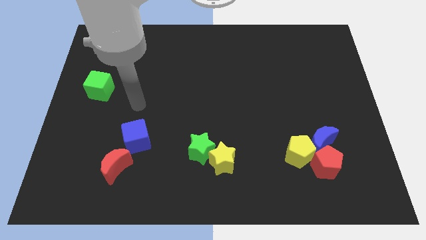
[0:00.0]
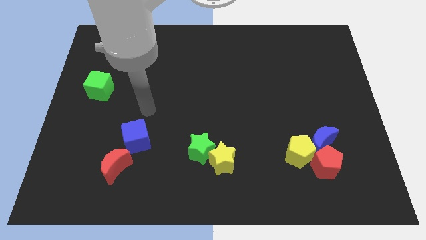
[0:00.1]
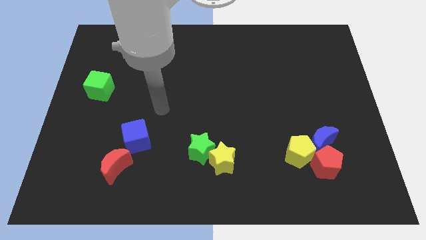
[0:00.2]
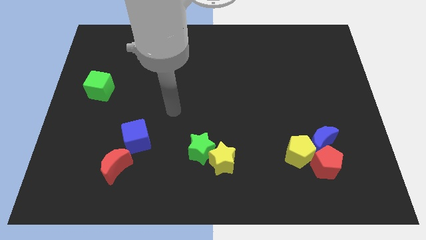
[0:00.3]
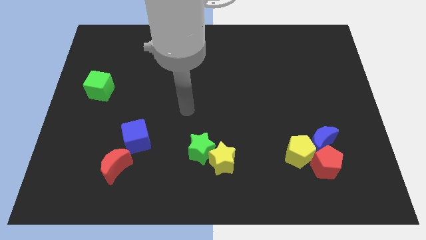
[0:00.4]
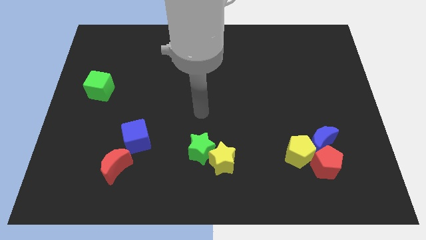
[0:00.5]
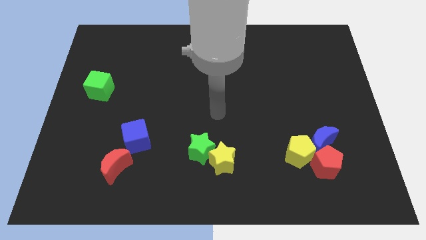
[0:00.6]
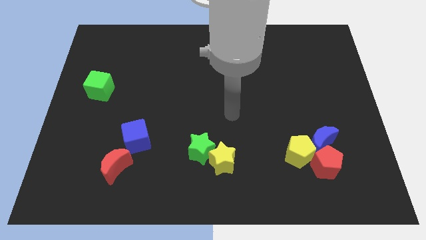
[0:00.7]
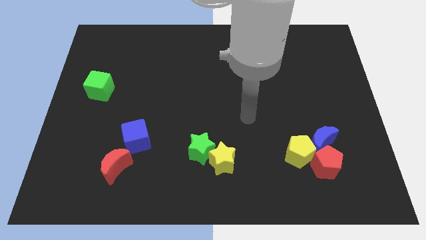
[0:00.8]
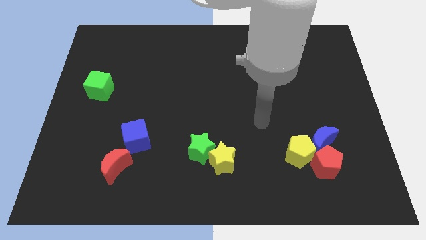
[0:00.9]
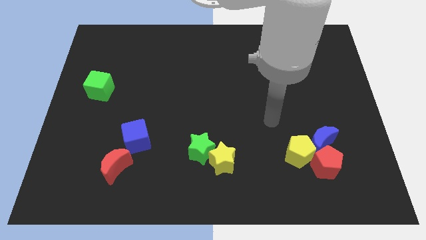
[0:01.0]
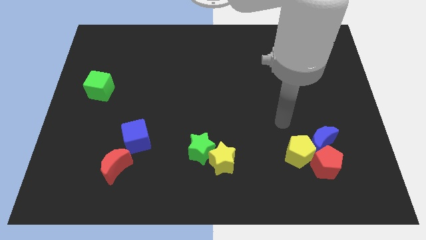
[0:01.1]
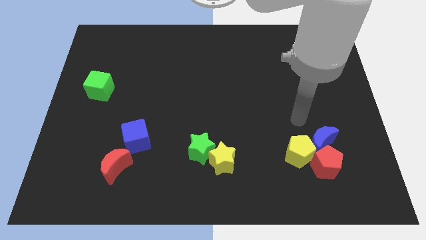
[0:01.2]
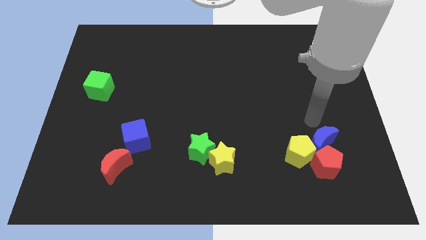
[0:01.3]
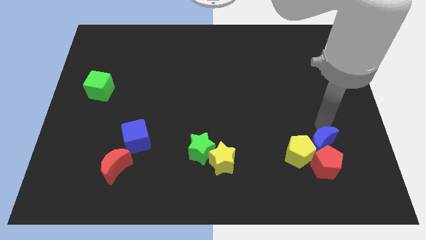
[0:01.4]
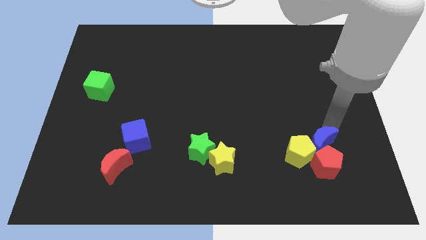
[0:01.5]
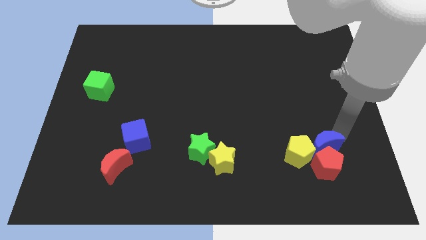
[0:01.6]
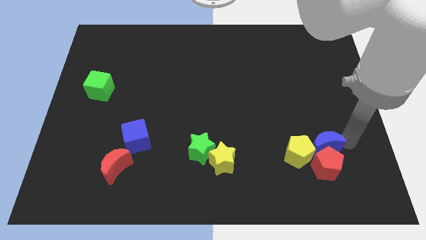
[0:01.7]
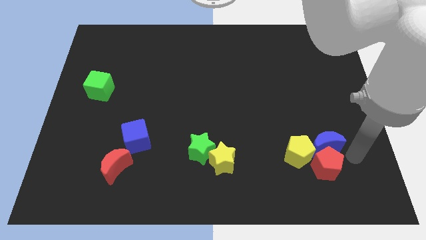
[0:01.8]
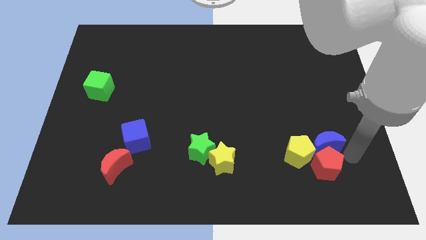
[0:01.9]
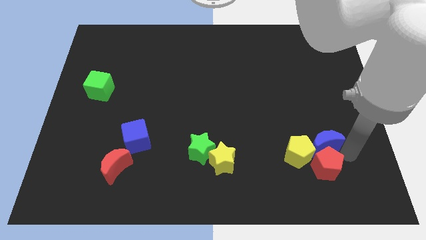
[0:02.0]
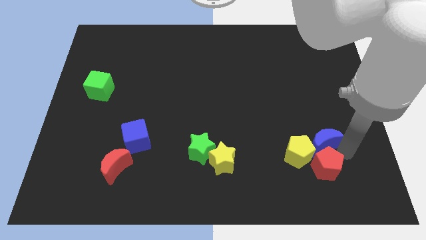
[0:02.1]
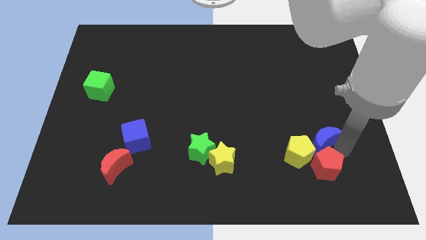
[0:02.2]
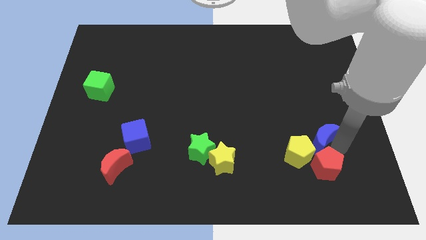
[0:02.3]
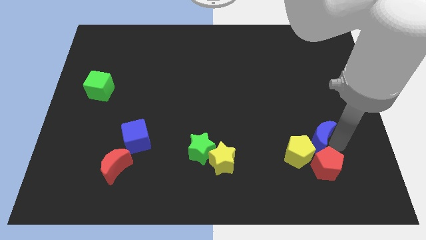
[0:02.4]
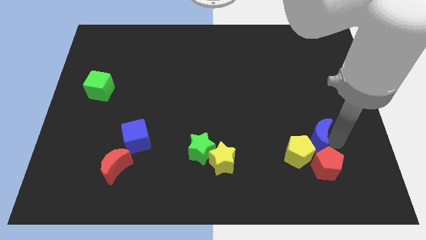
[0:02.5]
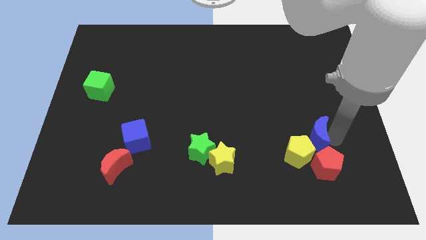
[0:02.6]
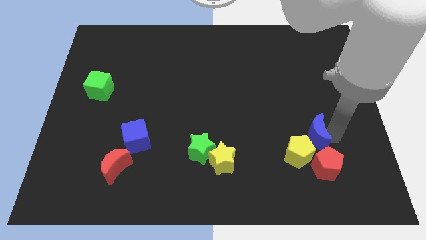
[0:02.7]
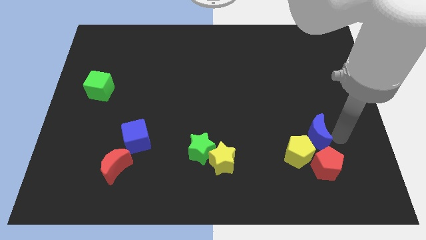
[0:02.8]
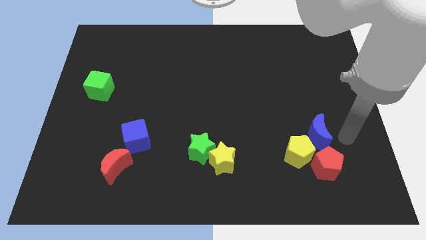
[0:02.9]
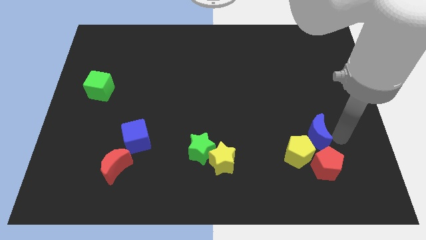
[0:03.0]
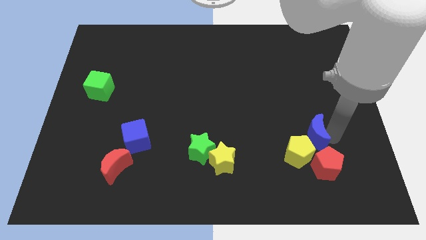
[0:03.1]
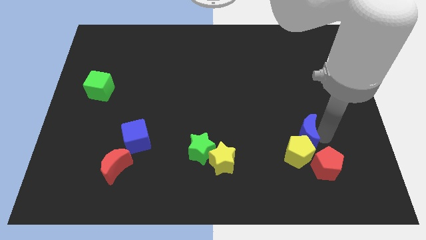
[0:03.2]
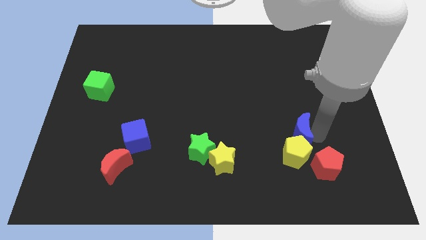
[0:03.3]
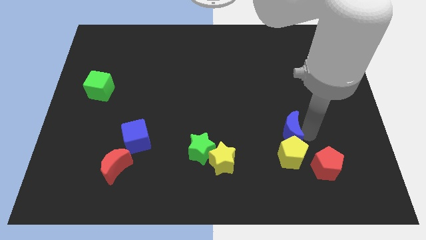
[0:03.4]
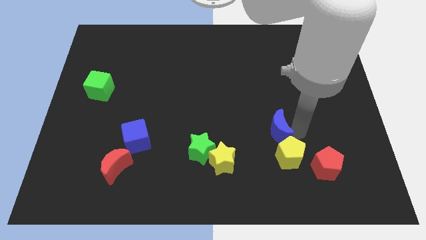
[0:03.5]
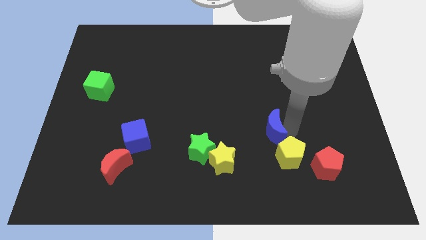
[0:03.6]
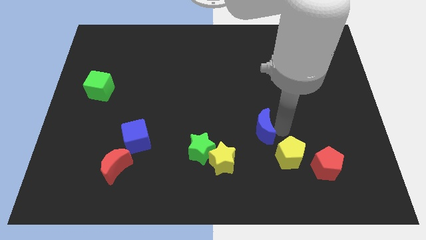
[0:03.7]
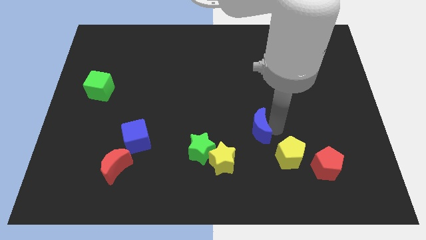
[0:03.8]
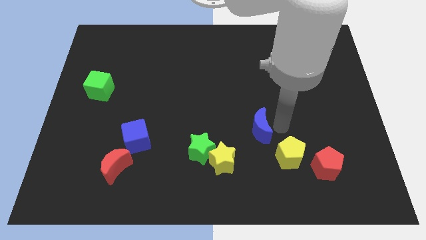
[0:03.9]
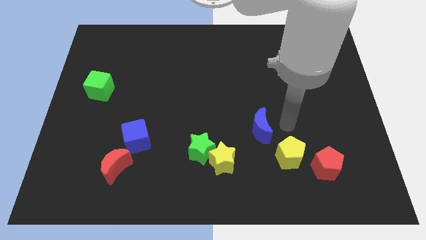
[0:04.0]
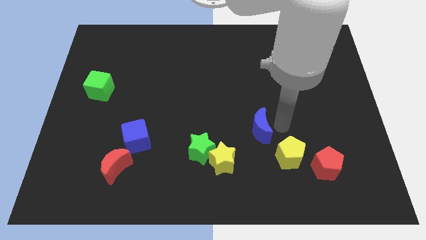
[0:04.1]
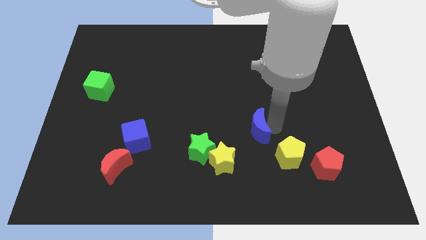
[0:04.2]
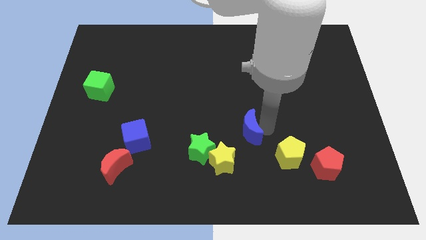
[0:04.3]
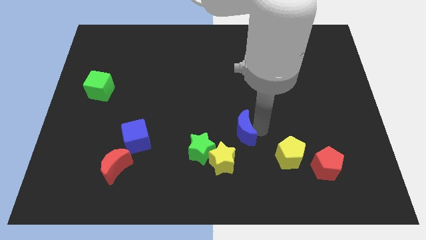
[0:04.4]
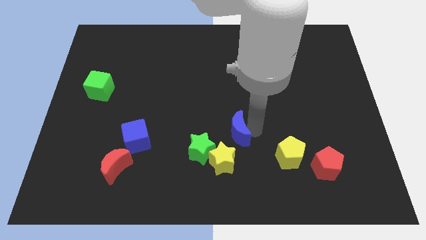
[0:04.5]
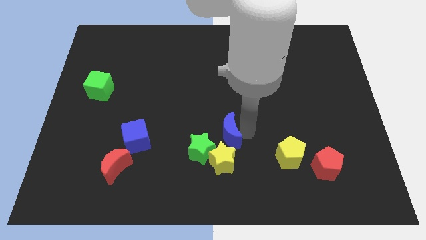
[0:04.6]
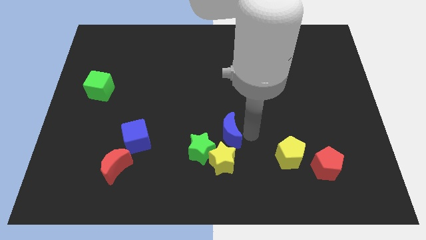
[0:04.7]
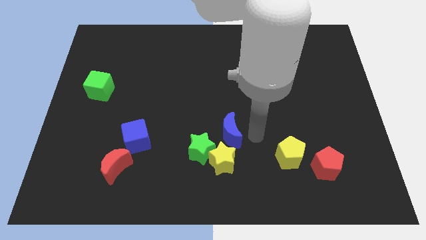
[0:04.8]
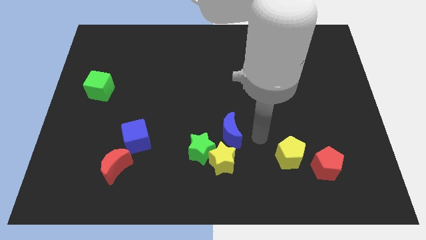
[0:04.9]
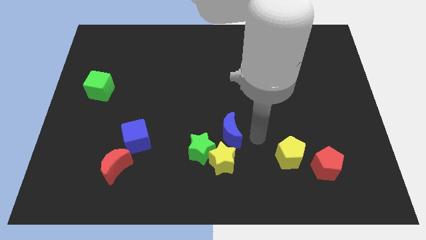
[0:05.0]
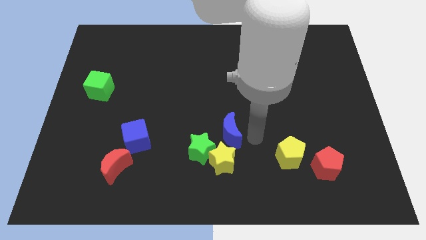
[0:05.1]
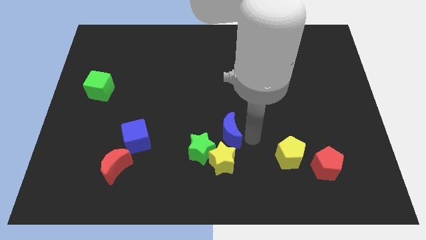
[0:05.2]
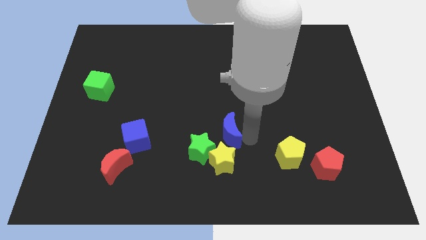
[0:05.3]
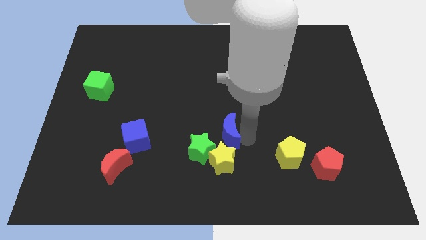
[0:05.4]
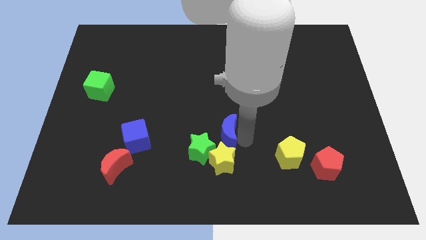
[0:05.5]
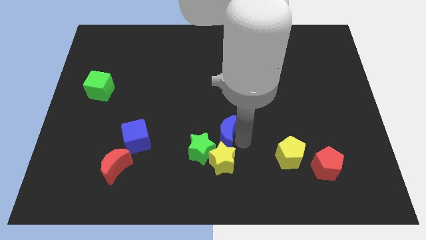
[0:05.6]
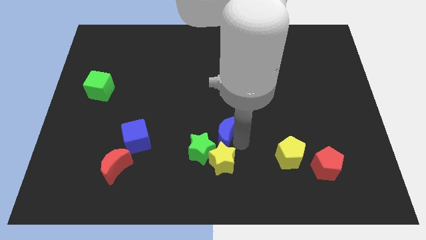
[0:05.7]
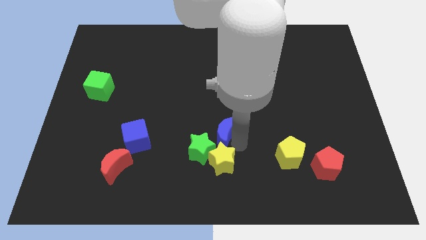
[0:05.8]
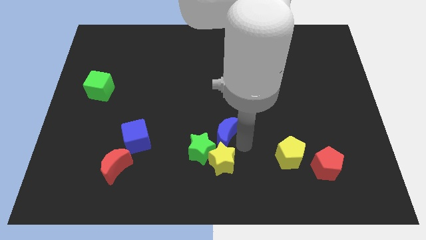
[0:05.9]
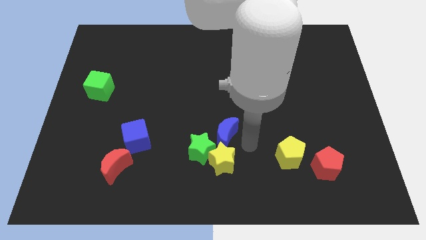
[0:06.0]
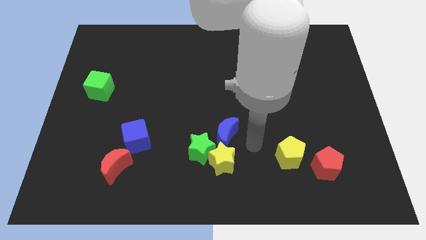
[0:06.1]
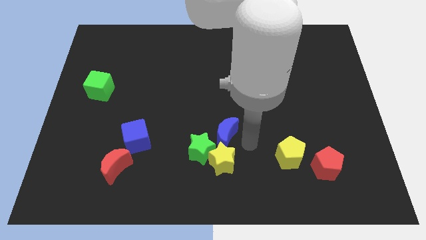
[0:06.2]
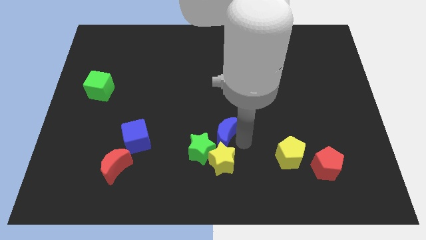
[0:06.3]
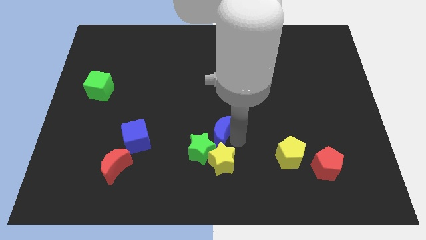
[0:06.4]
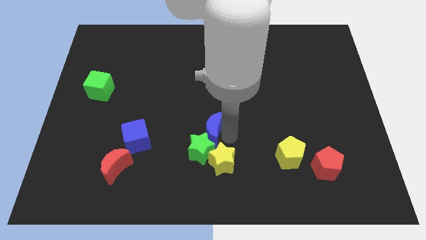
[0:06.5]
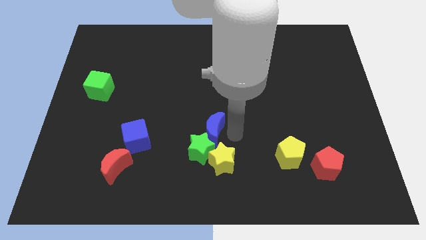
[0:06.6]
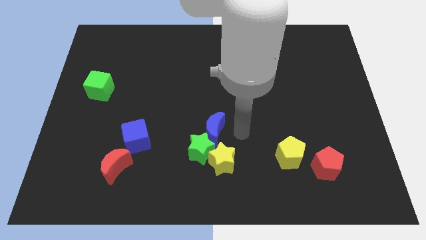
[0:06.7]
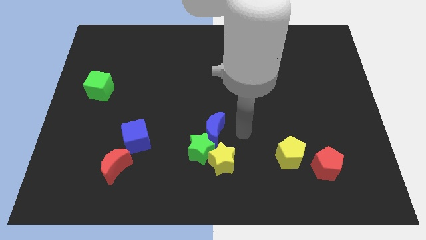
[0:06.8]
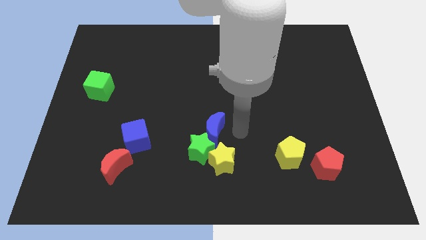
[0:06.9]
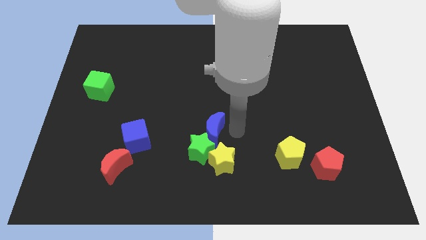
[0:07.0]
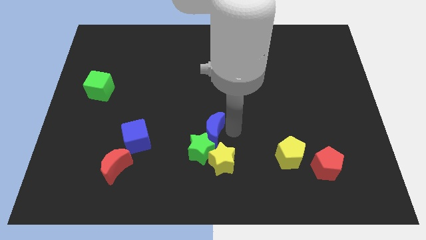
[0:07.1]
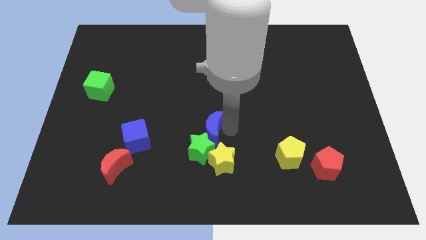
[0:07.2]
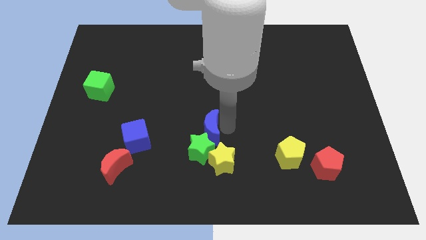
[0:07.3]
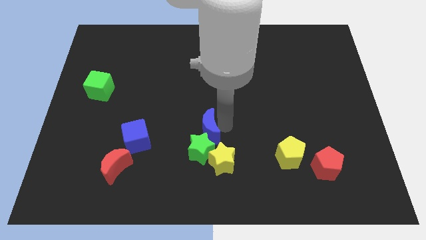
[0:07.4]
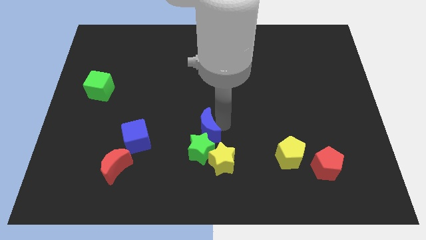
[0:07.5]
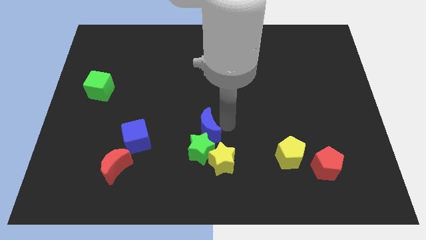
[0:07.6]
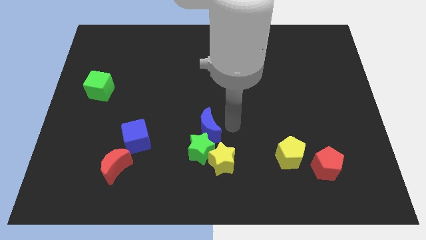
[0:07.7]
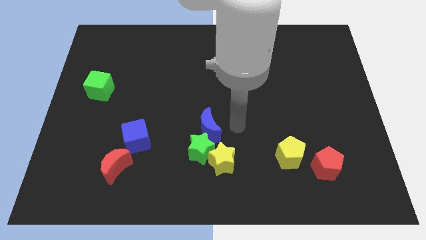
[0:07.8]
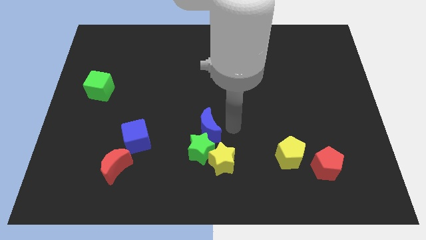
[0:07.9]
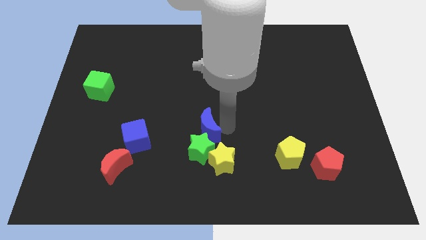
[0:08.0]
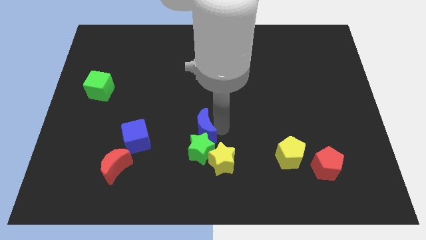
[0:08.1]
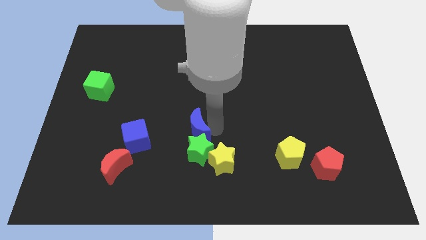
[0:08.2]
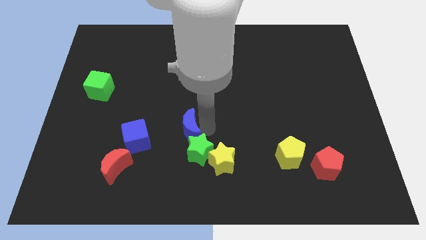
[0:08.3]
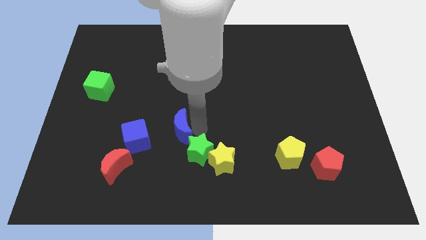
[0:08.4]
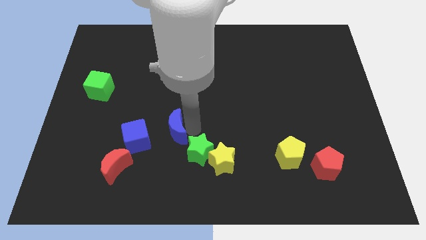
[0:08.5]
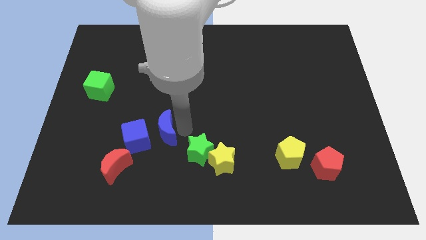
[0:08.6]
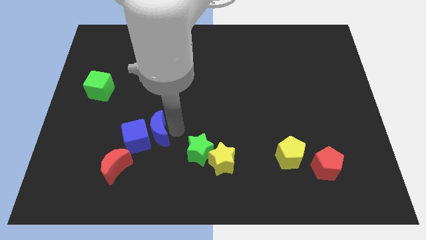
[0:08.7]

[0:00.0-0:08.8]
slide the blue moon close to the blue cube
